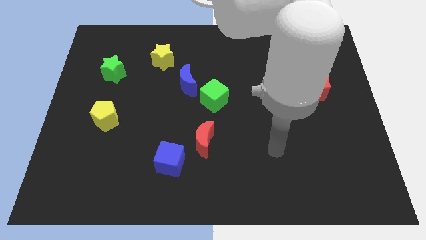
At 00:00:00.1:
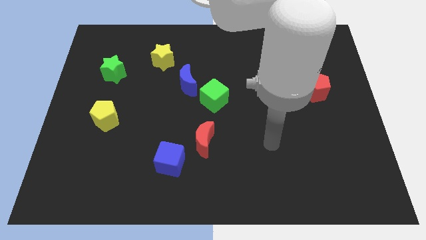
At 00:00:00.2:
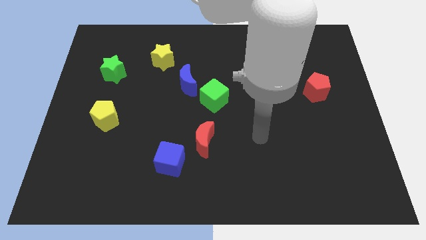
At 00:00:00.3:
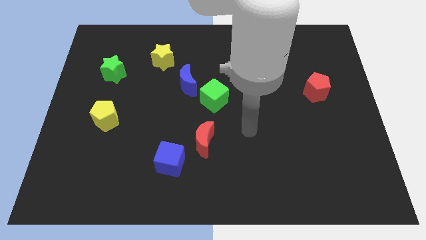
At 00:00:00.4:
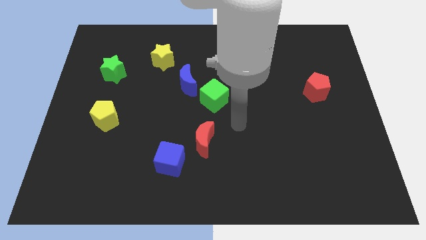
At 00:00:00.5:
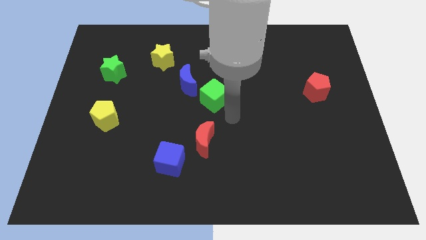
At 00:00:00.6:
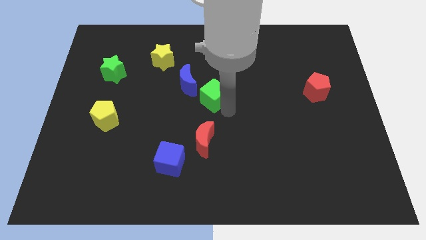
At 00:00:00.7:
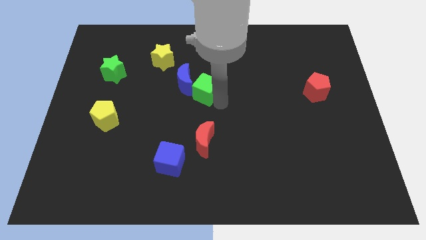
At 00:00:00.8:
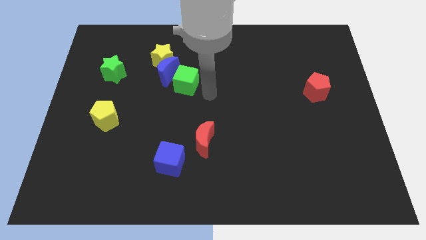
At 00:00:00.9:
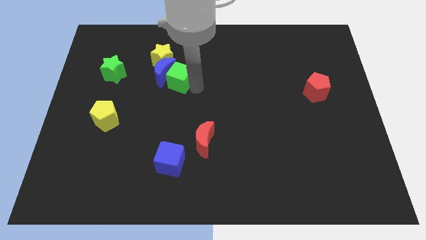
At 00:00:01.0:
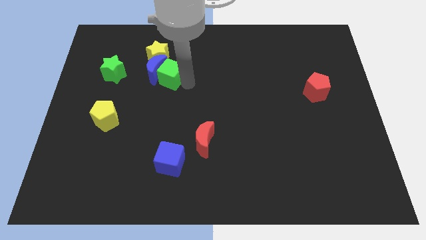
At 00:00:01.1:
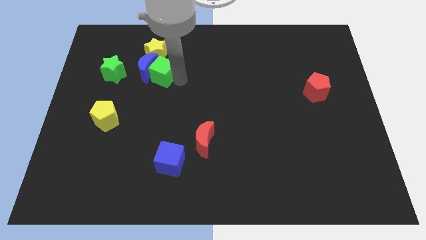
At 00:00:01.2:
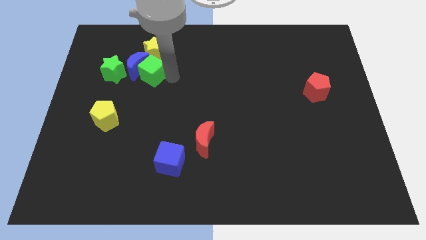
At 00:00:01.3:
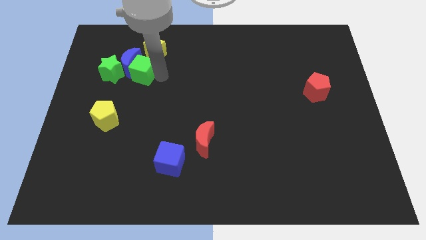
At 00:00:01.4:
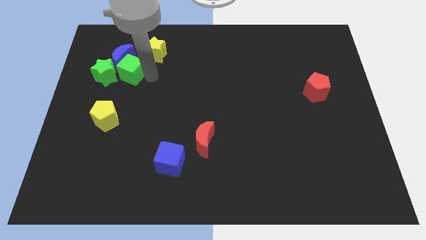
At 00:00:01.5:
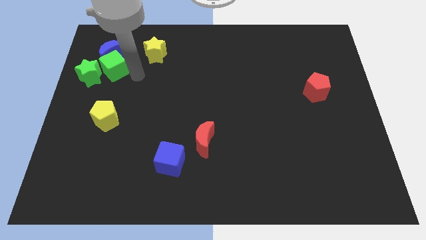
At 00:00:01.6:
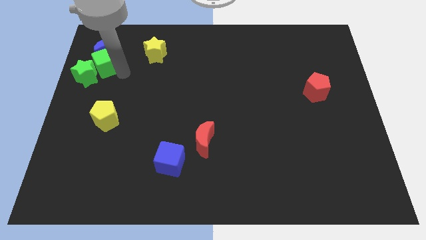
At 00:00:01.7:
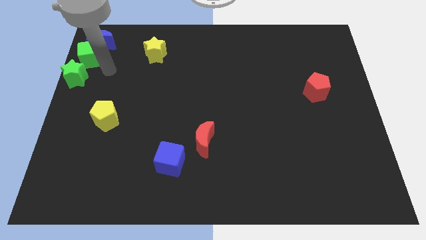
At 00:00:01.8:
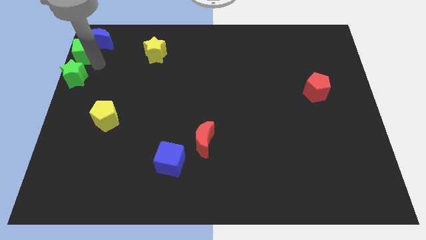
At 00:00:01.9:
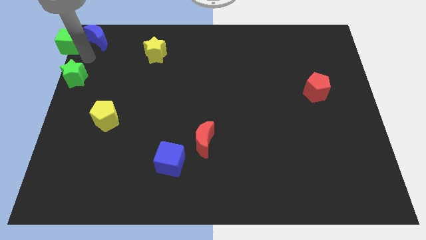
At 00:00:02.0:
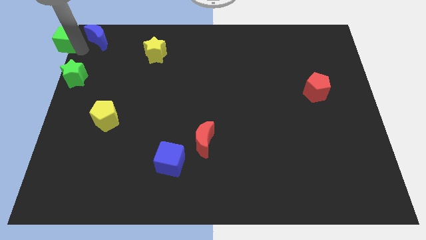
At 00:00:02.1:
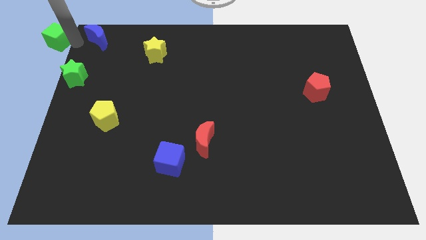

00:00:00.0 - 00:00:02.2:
pull the blue moon apart from the green cube

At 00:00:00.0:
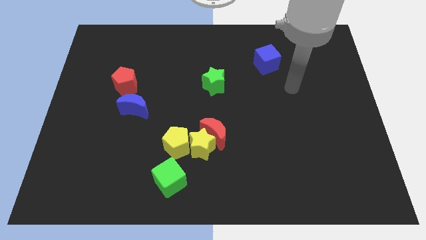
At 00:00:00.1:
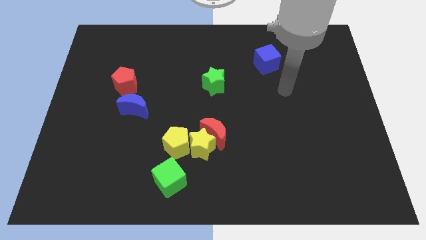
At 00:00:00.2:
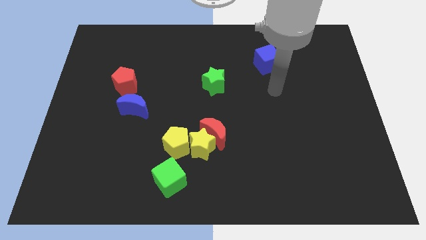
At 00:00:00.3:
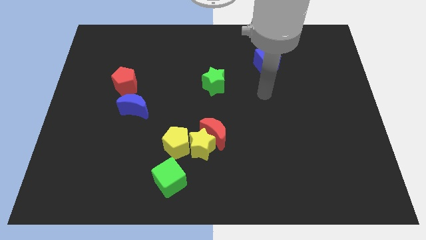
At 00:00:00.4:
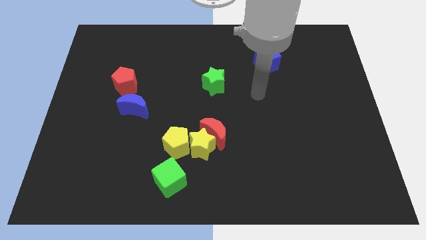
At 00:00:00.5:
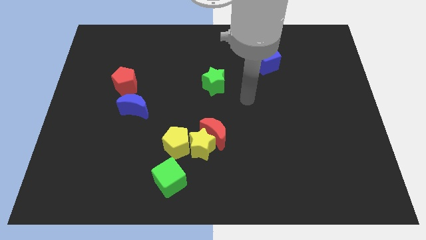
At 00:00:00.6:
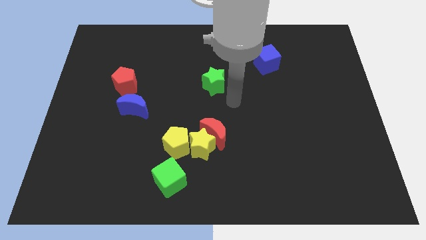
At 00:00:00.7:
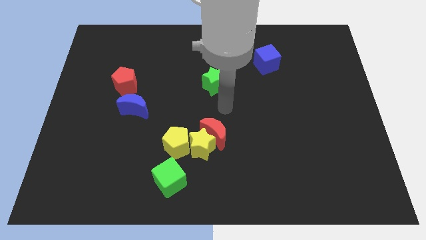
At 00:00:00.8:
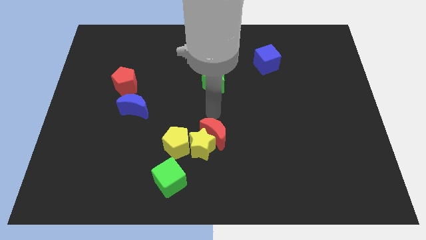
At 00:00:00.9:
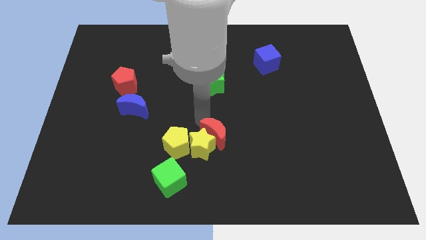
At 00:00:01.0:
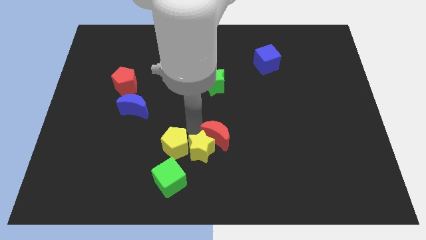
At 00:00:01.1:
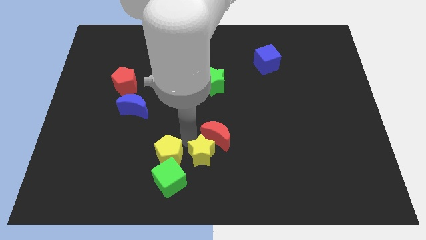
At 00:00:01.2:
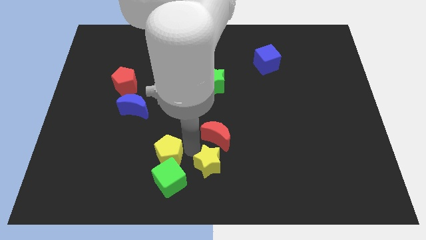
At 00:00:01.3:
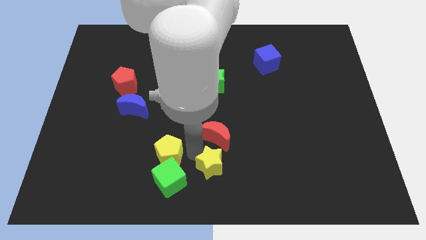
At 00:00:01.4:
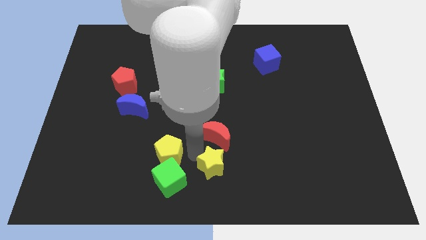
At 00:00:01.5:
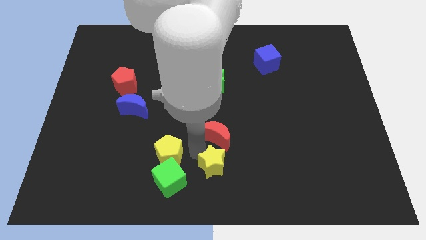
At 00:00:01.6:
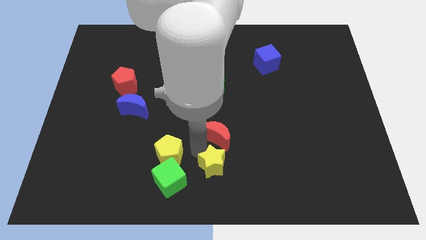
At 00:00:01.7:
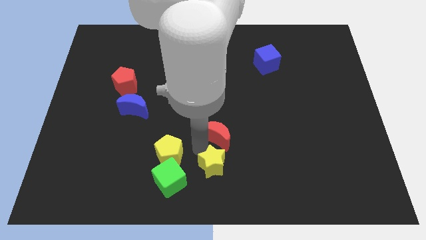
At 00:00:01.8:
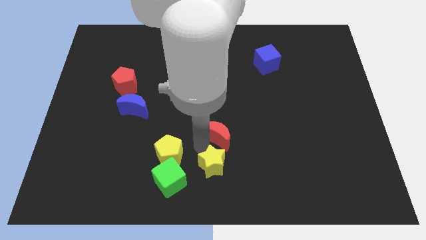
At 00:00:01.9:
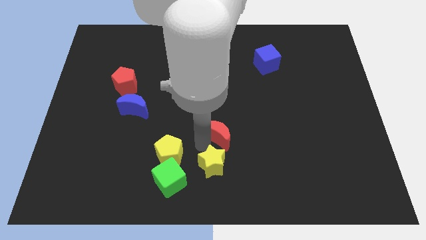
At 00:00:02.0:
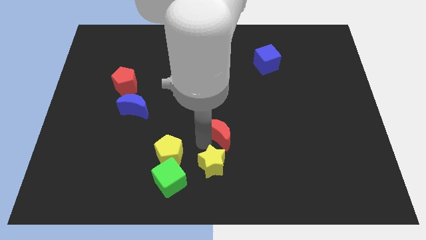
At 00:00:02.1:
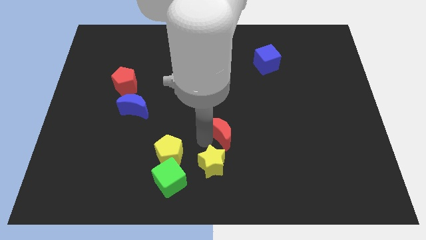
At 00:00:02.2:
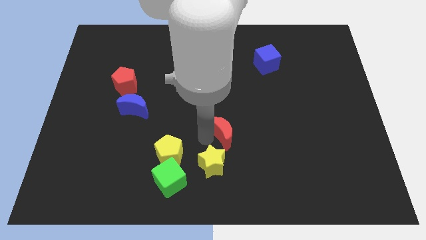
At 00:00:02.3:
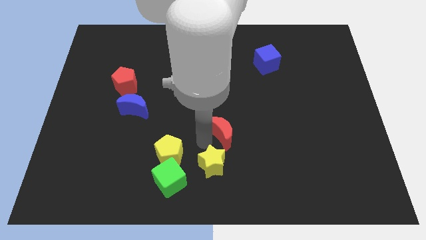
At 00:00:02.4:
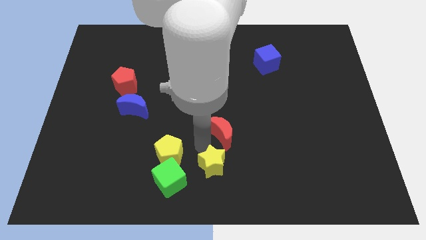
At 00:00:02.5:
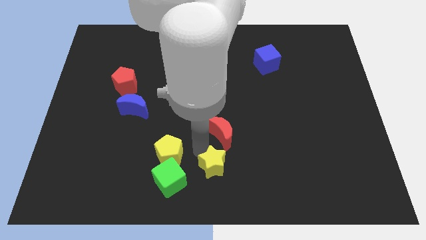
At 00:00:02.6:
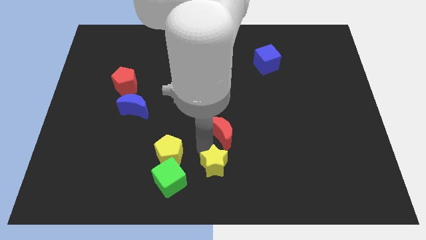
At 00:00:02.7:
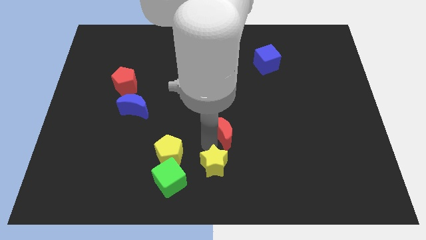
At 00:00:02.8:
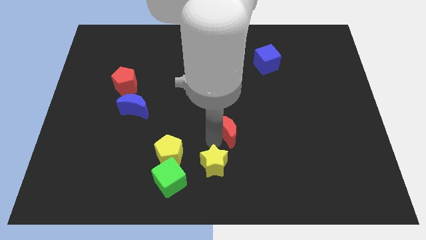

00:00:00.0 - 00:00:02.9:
move the red moon away from the yellow star and yellow pentagon

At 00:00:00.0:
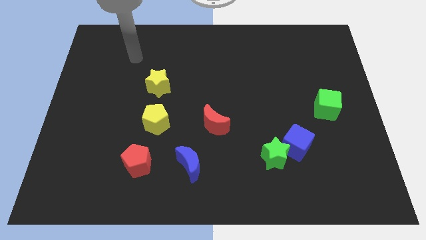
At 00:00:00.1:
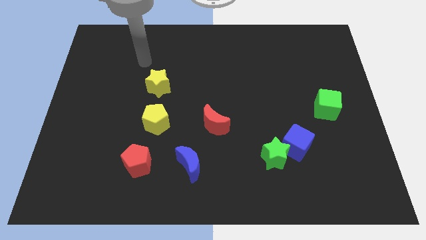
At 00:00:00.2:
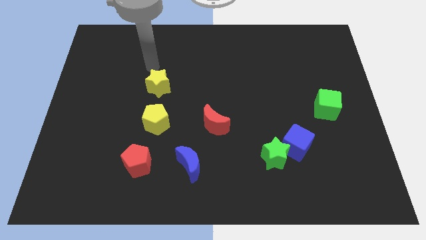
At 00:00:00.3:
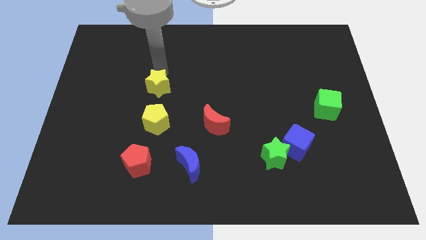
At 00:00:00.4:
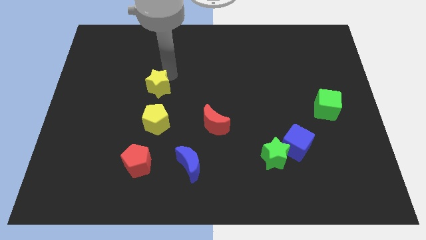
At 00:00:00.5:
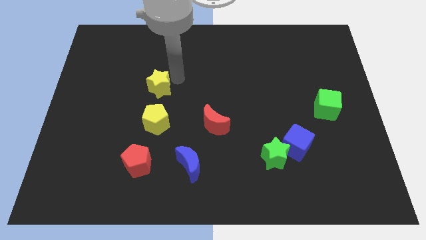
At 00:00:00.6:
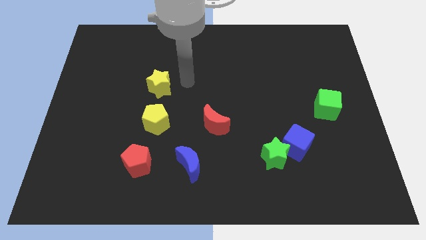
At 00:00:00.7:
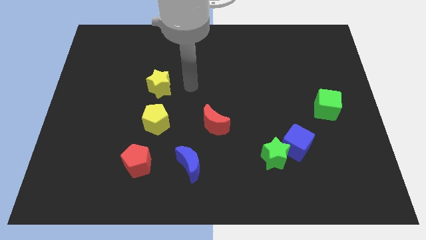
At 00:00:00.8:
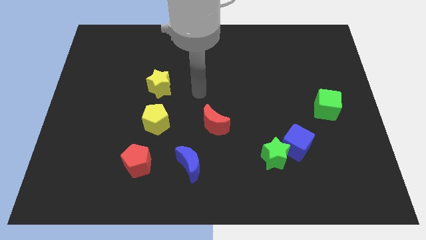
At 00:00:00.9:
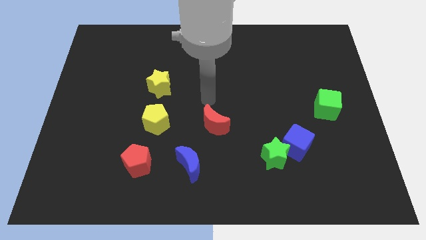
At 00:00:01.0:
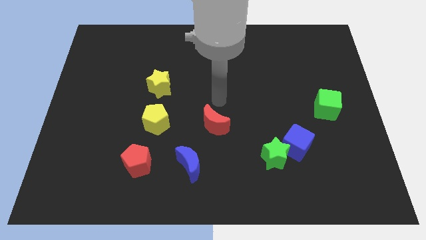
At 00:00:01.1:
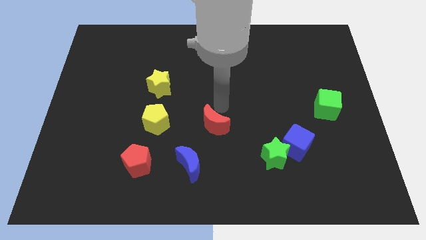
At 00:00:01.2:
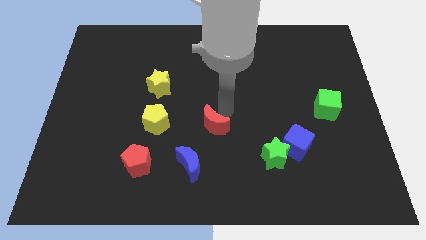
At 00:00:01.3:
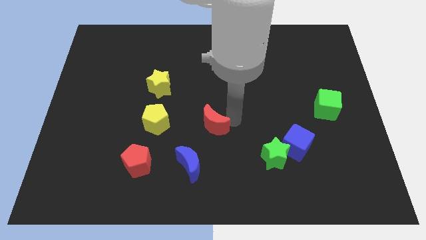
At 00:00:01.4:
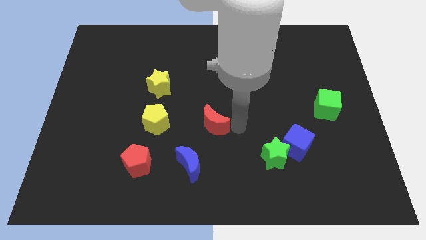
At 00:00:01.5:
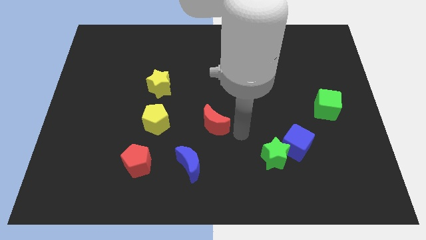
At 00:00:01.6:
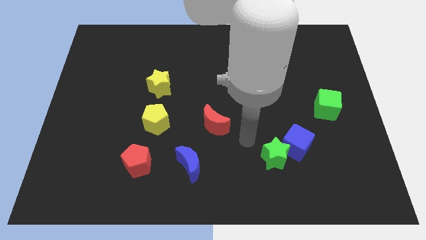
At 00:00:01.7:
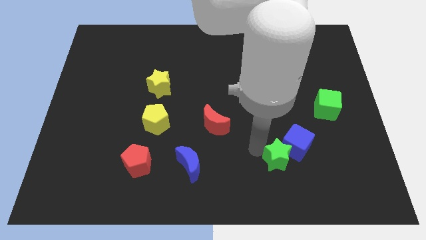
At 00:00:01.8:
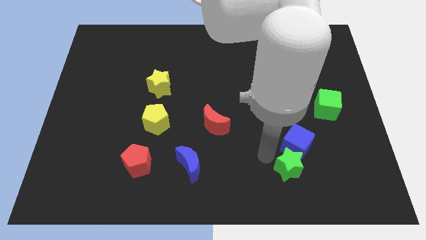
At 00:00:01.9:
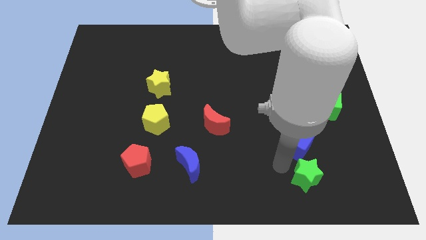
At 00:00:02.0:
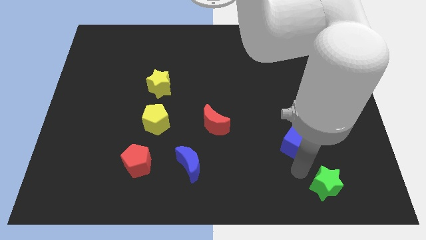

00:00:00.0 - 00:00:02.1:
separate the blue cube from the green star

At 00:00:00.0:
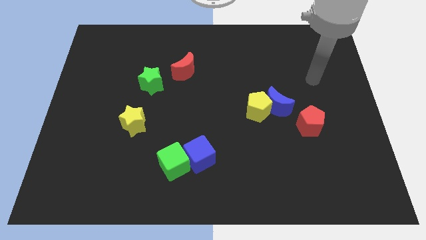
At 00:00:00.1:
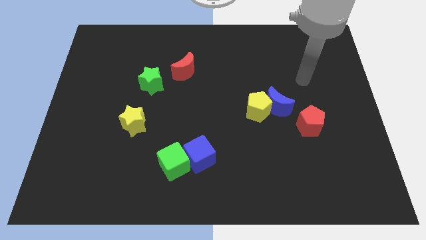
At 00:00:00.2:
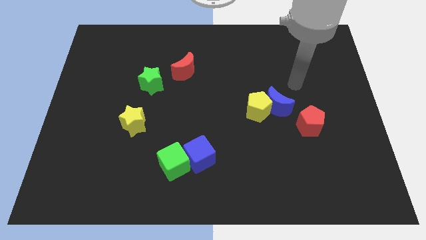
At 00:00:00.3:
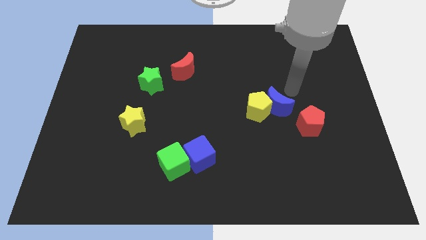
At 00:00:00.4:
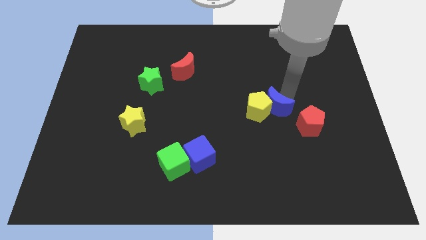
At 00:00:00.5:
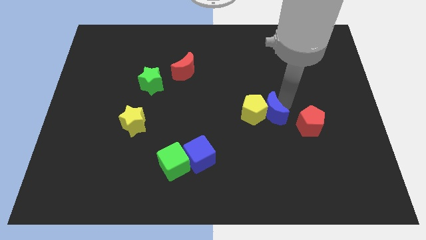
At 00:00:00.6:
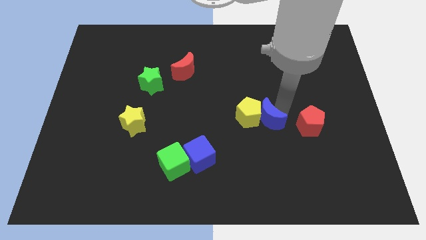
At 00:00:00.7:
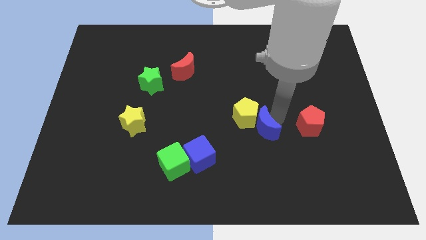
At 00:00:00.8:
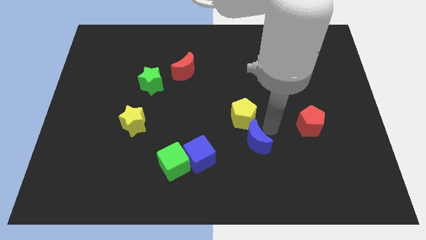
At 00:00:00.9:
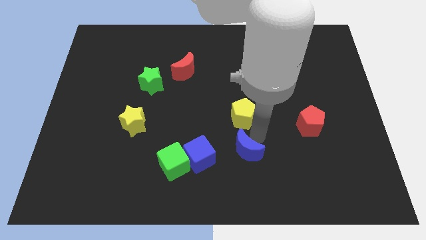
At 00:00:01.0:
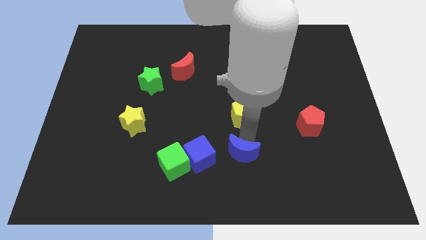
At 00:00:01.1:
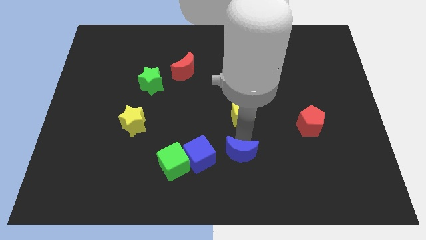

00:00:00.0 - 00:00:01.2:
separate the yellow pentagon from the blue moon

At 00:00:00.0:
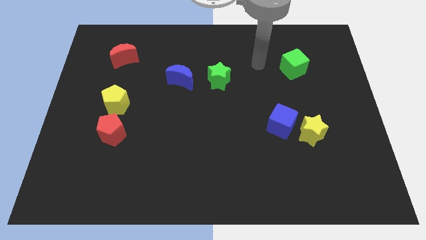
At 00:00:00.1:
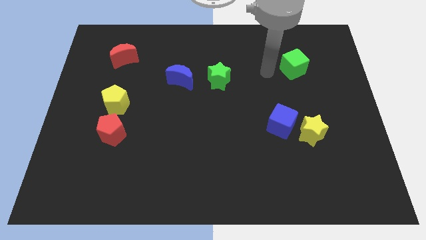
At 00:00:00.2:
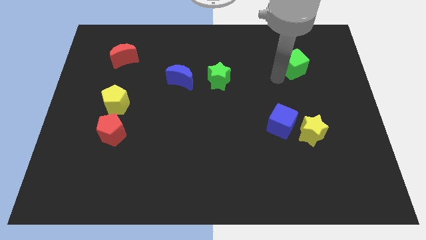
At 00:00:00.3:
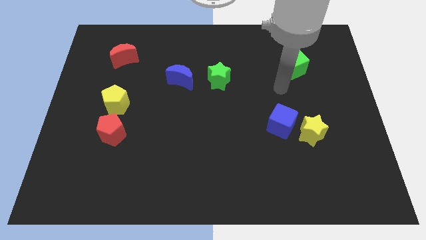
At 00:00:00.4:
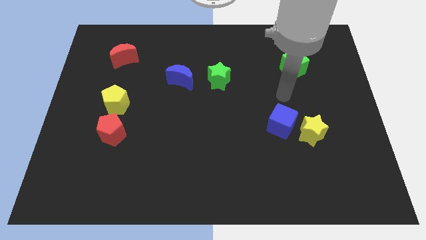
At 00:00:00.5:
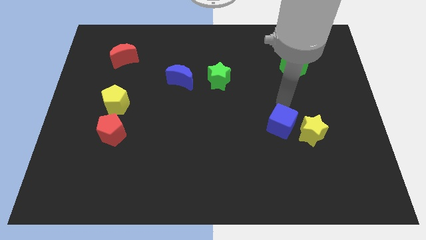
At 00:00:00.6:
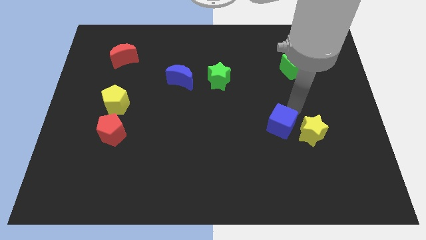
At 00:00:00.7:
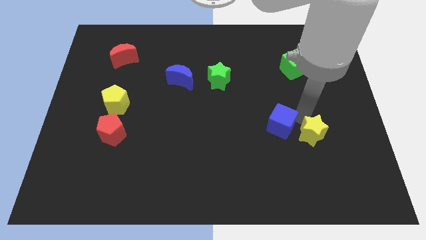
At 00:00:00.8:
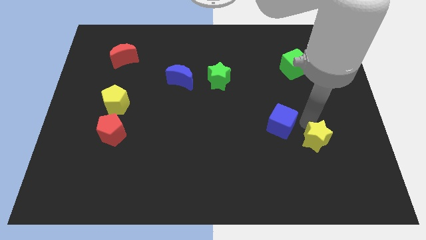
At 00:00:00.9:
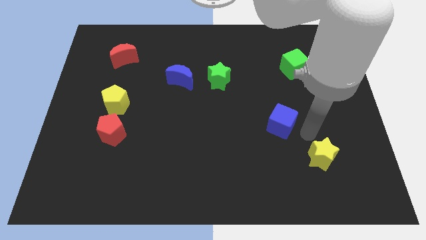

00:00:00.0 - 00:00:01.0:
separate the blue cube from the yellow star
